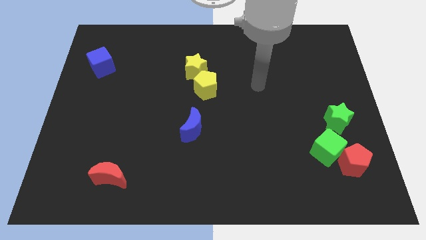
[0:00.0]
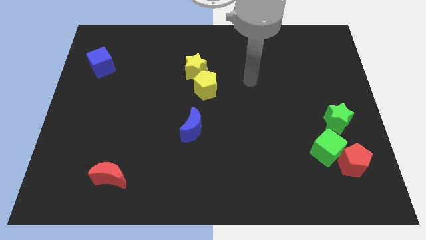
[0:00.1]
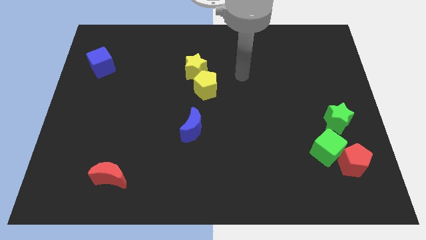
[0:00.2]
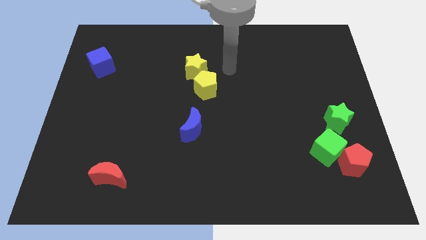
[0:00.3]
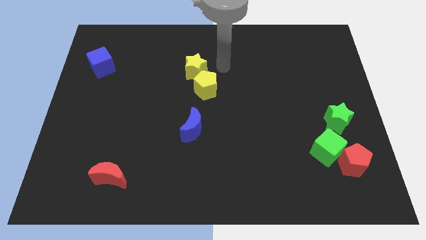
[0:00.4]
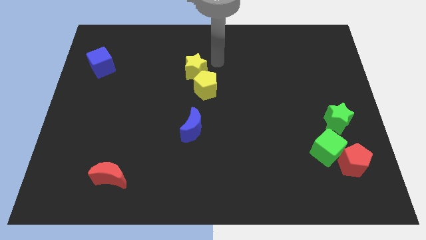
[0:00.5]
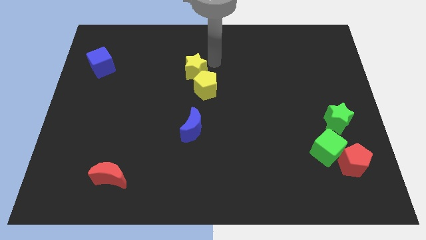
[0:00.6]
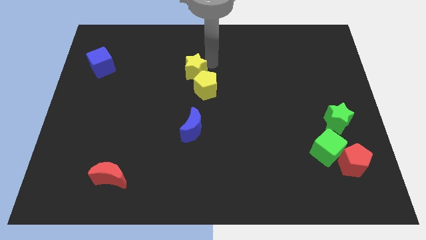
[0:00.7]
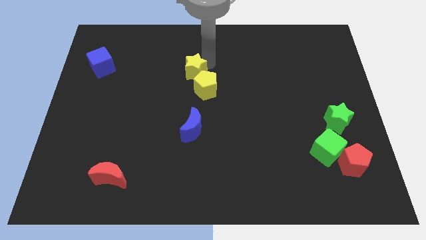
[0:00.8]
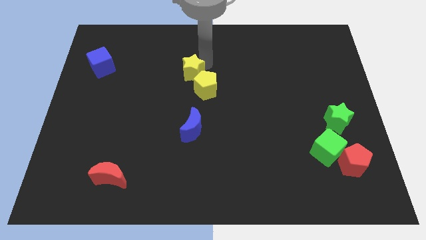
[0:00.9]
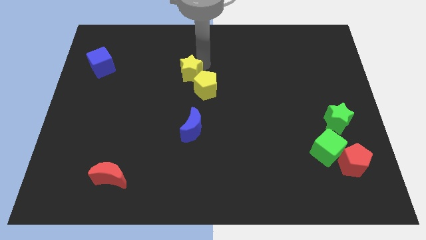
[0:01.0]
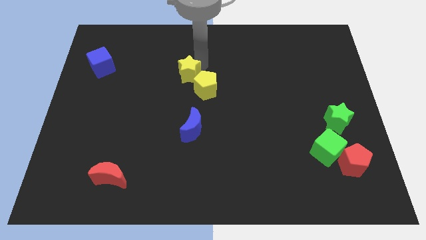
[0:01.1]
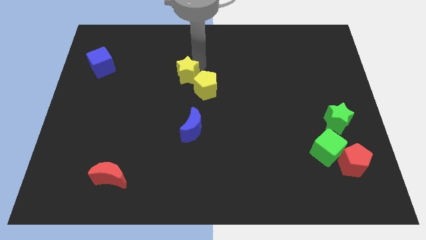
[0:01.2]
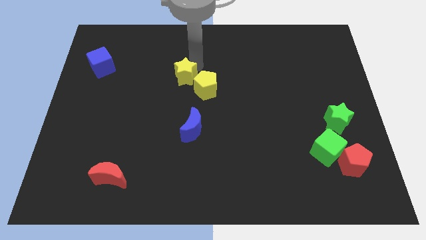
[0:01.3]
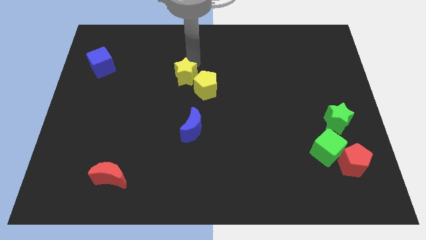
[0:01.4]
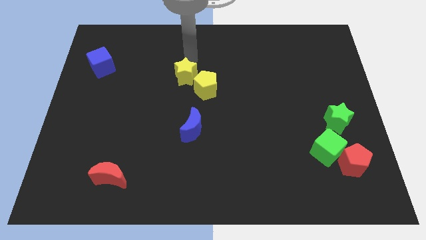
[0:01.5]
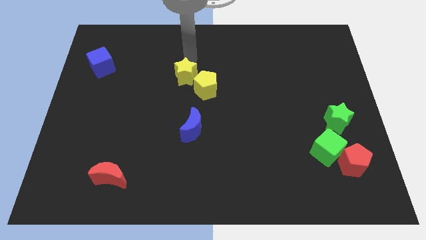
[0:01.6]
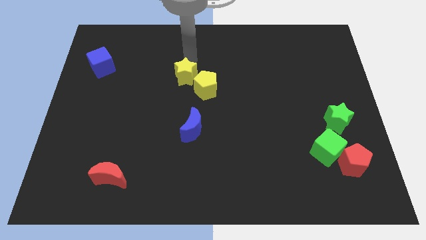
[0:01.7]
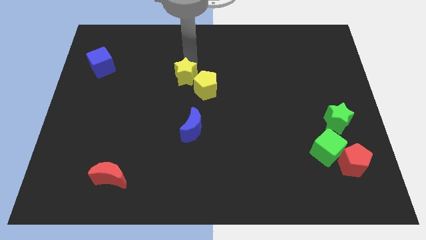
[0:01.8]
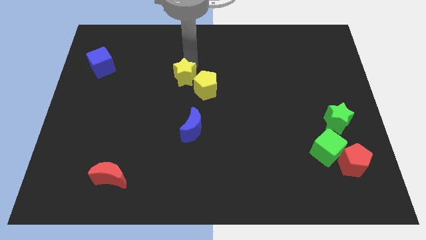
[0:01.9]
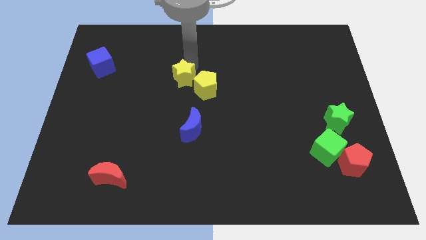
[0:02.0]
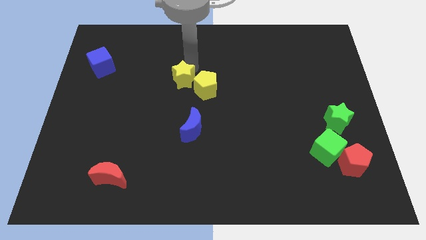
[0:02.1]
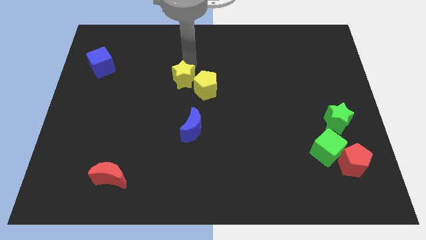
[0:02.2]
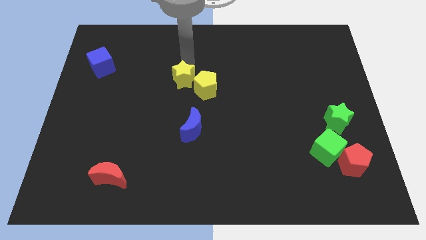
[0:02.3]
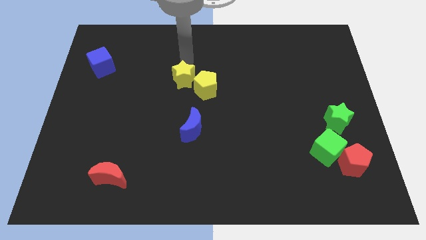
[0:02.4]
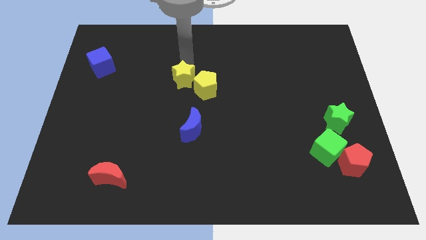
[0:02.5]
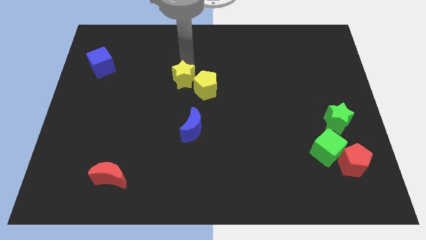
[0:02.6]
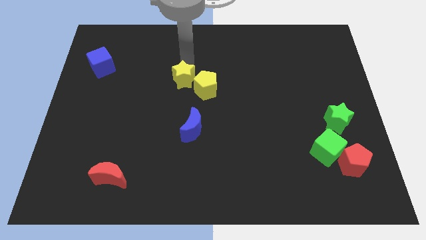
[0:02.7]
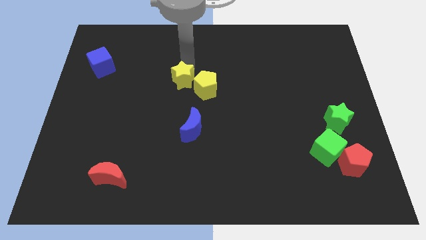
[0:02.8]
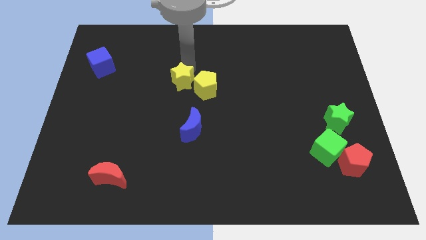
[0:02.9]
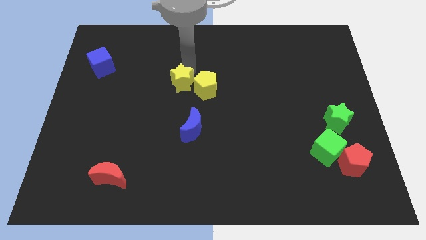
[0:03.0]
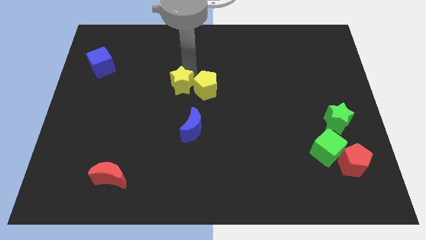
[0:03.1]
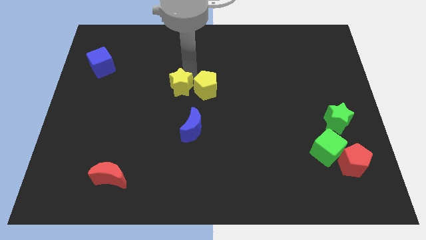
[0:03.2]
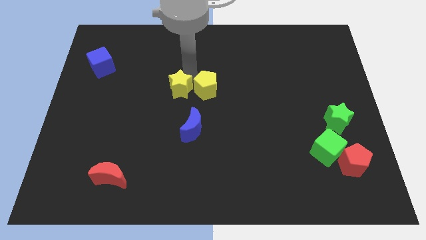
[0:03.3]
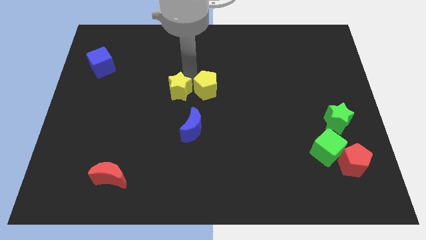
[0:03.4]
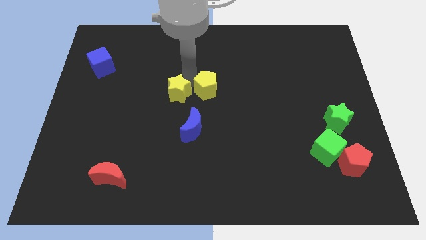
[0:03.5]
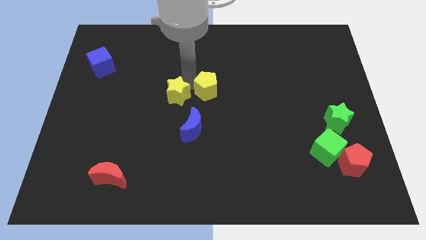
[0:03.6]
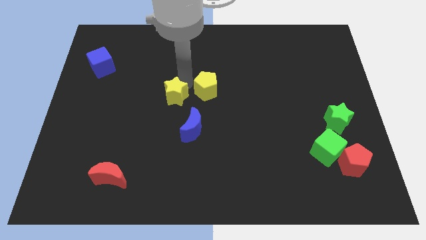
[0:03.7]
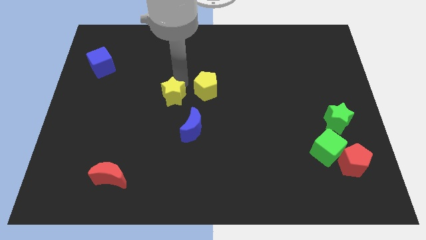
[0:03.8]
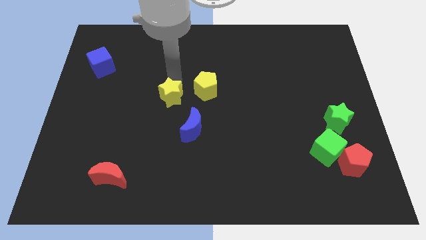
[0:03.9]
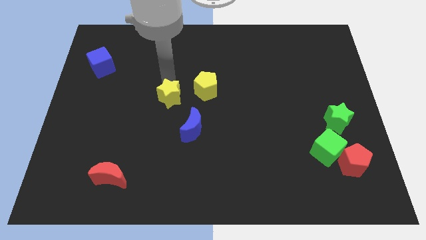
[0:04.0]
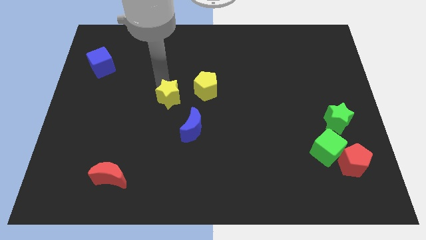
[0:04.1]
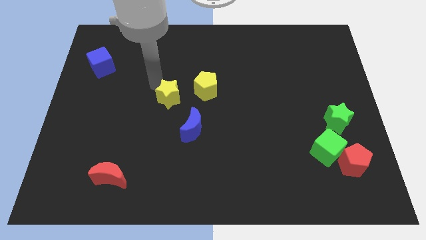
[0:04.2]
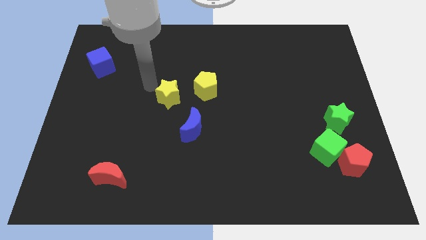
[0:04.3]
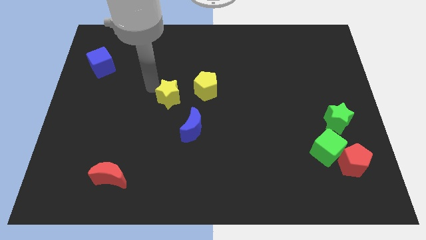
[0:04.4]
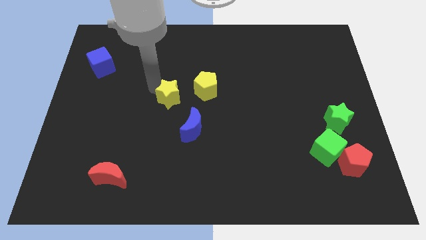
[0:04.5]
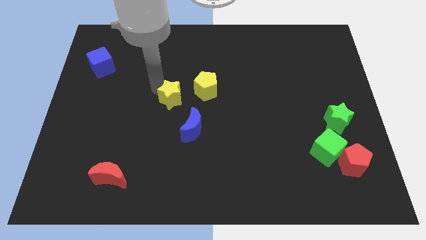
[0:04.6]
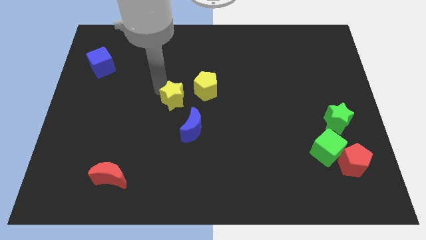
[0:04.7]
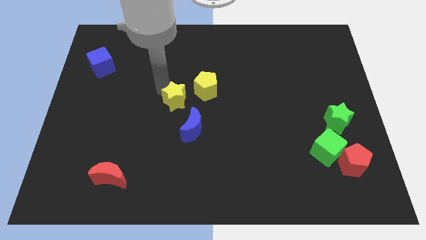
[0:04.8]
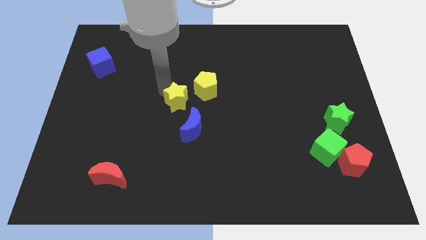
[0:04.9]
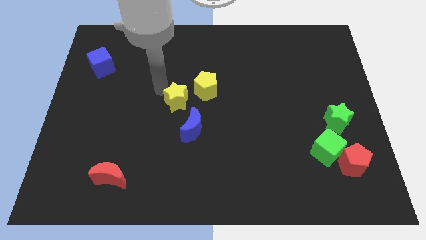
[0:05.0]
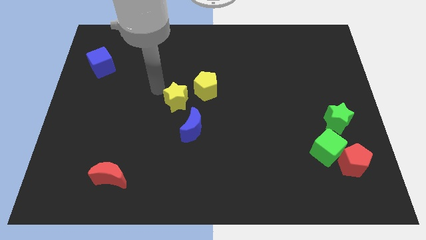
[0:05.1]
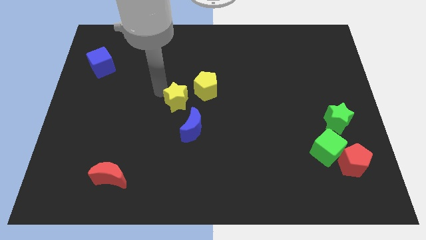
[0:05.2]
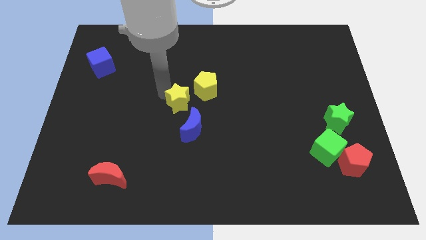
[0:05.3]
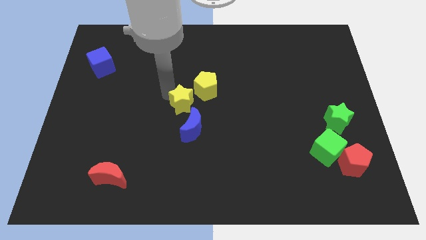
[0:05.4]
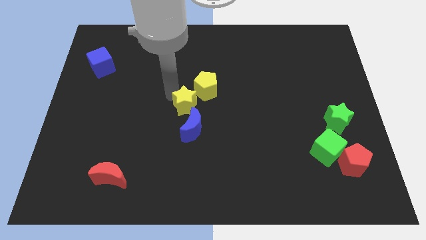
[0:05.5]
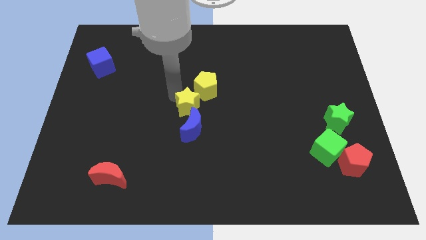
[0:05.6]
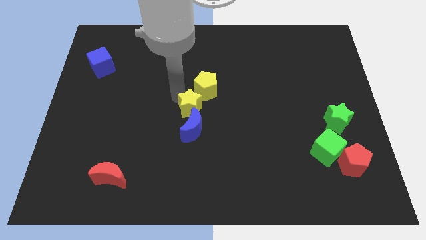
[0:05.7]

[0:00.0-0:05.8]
slide the yellow star to the blue moon

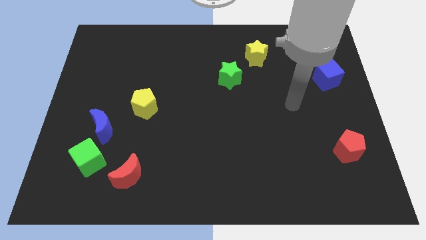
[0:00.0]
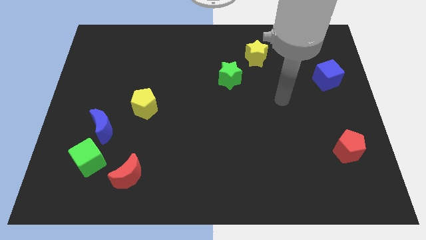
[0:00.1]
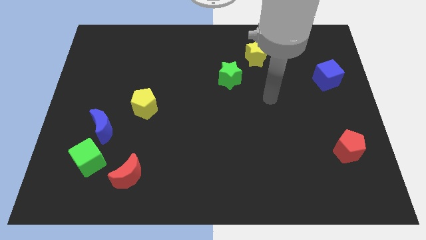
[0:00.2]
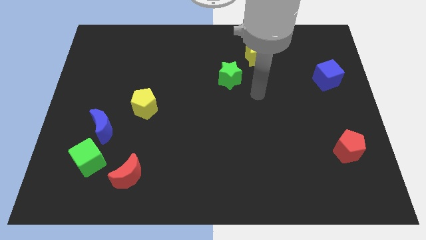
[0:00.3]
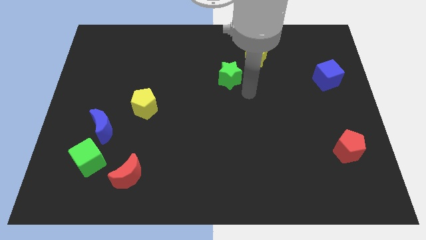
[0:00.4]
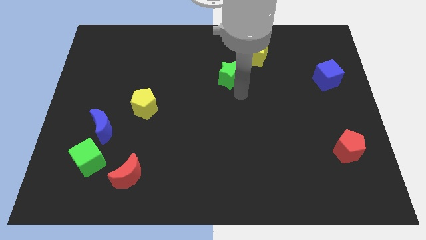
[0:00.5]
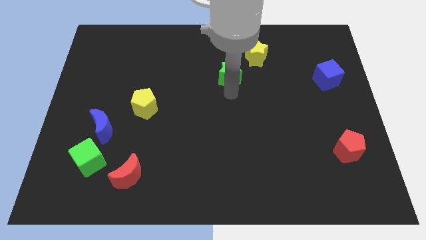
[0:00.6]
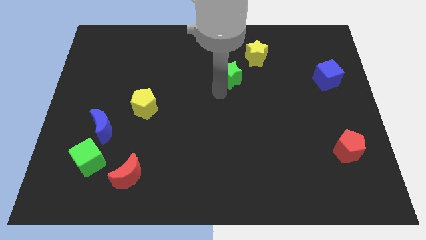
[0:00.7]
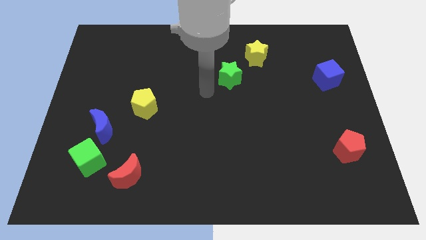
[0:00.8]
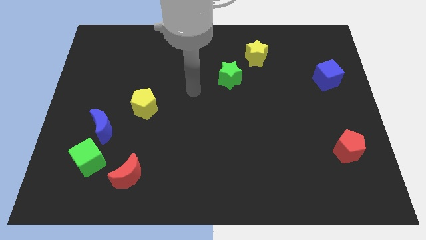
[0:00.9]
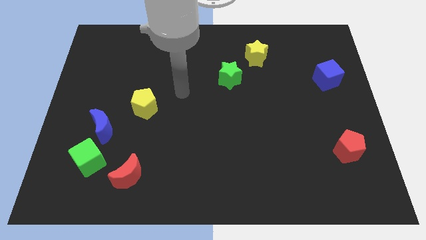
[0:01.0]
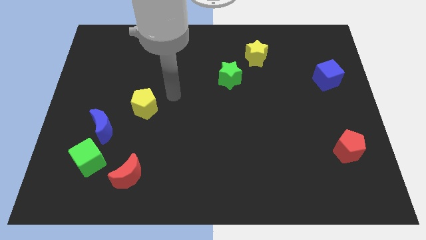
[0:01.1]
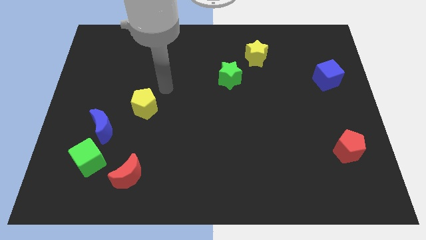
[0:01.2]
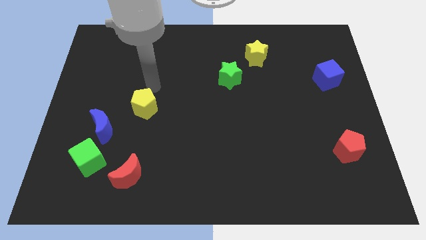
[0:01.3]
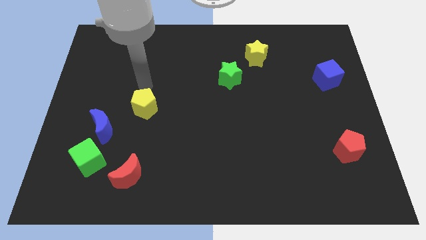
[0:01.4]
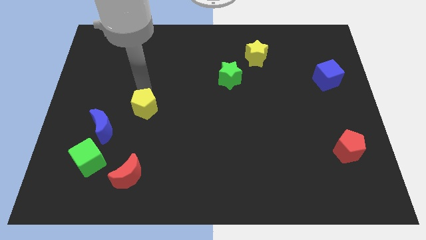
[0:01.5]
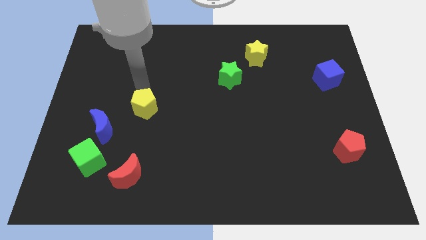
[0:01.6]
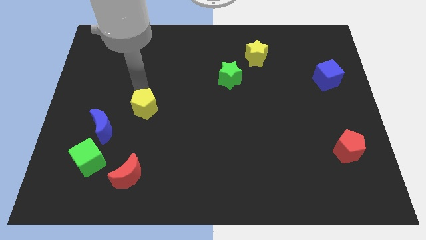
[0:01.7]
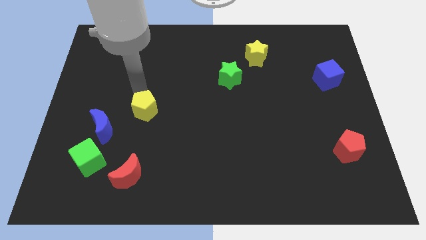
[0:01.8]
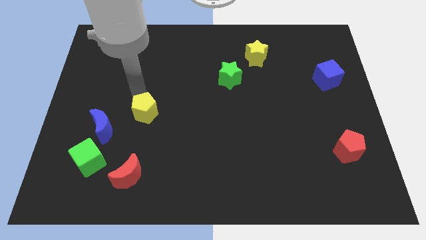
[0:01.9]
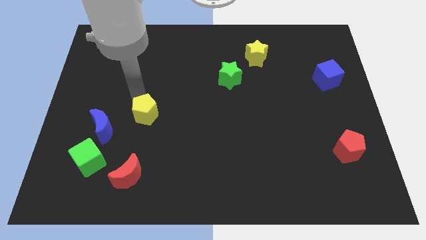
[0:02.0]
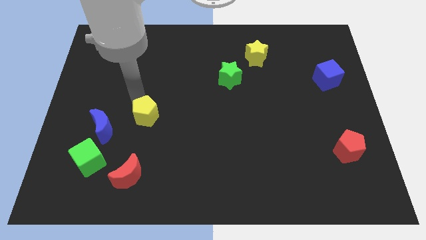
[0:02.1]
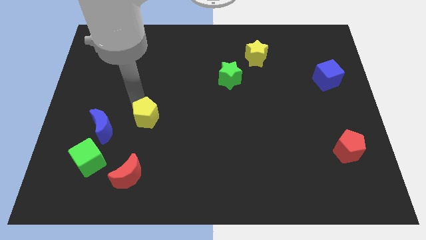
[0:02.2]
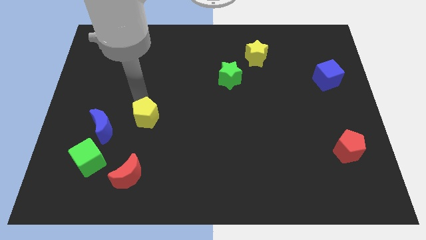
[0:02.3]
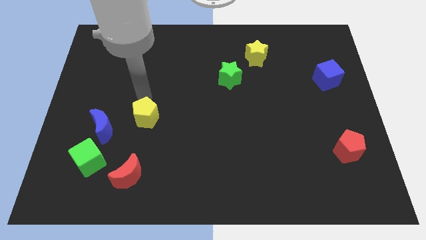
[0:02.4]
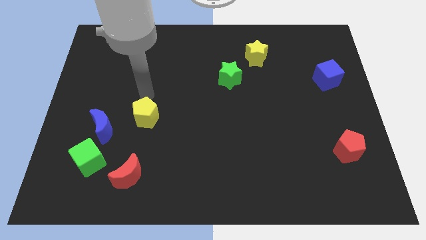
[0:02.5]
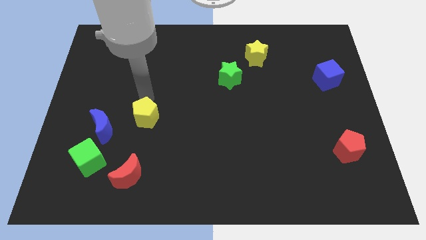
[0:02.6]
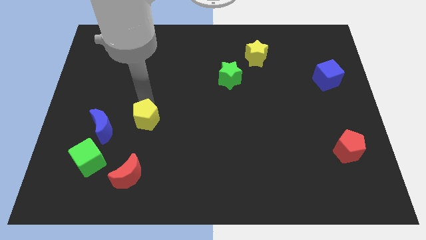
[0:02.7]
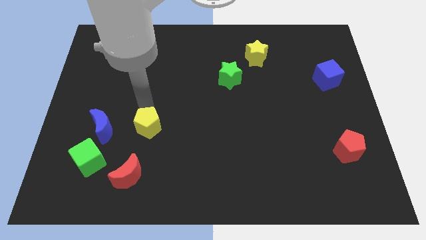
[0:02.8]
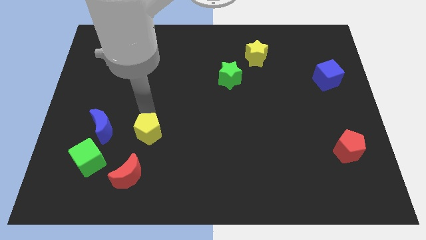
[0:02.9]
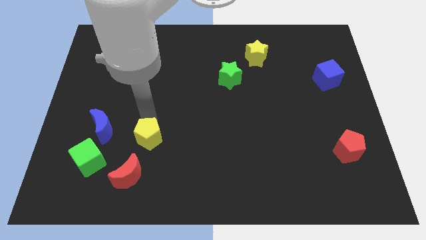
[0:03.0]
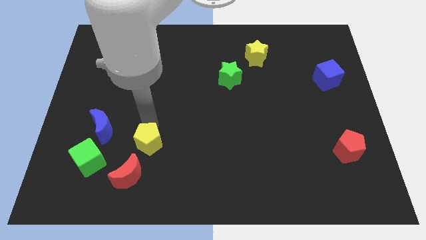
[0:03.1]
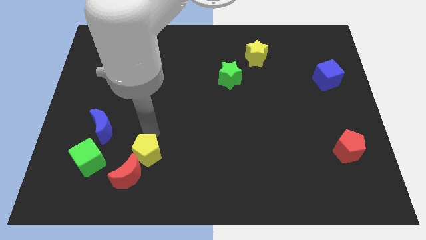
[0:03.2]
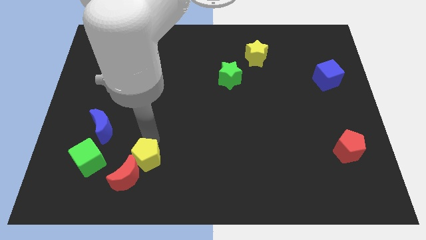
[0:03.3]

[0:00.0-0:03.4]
move the yellow pentagon towards the red moon
